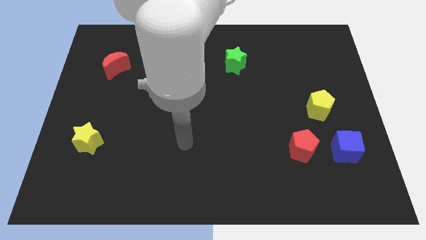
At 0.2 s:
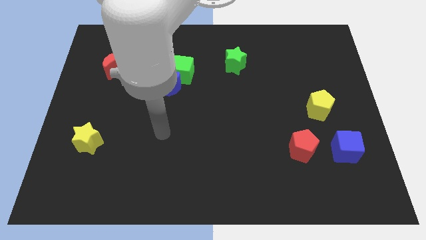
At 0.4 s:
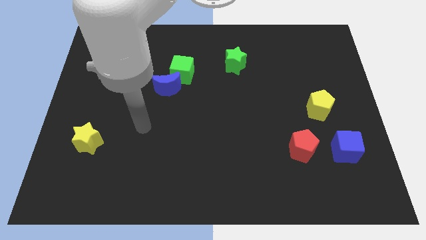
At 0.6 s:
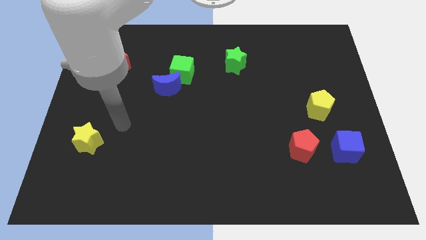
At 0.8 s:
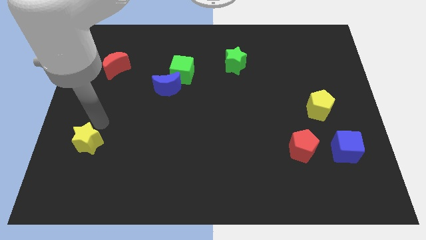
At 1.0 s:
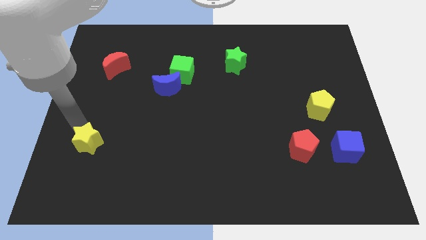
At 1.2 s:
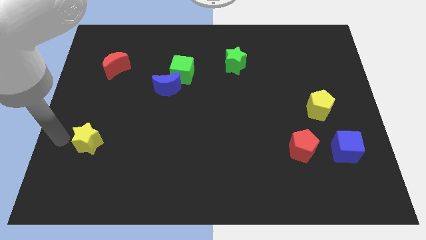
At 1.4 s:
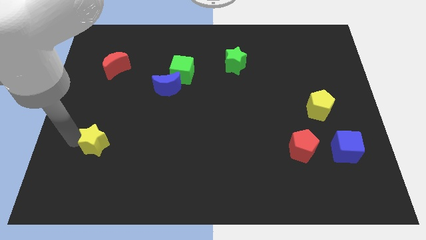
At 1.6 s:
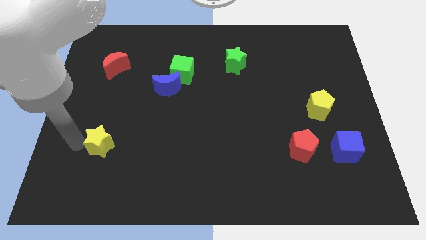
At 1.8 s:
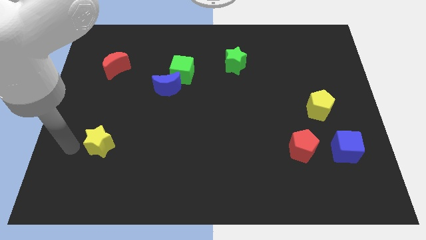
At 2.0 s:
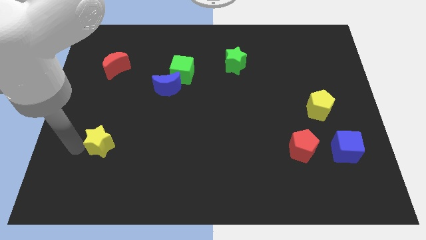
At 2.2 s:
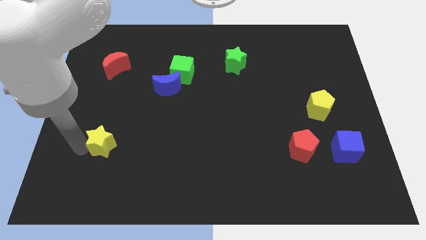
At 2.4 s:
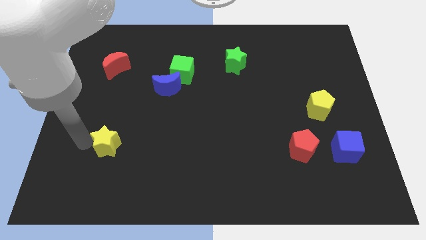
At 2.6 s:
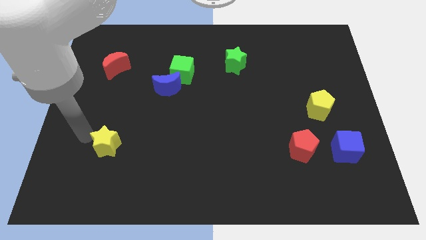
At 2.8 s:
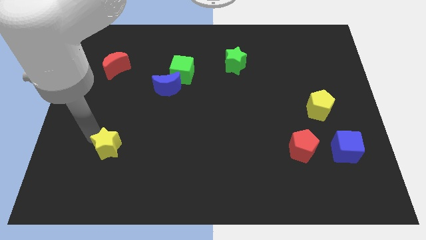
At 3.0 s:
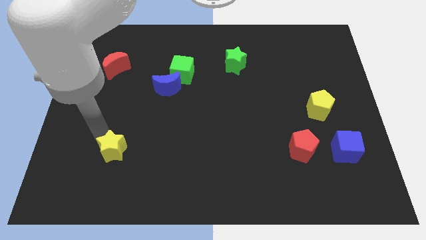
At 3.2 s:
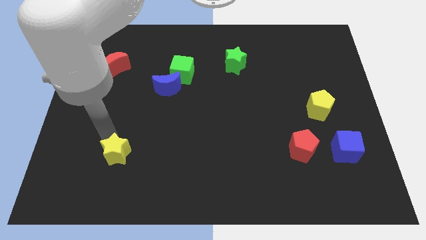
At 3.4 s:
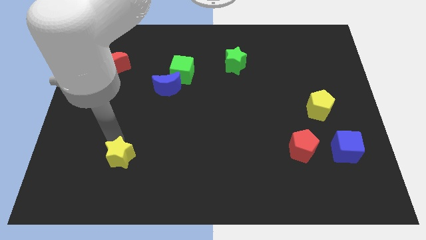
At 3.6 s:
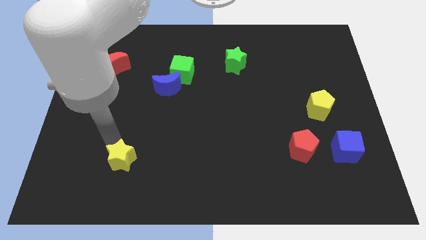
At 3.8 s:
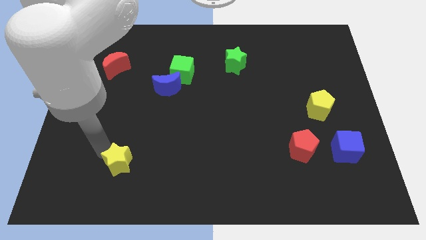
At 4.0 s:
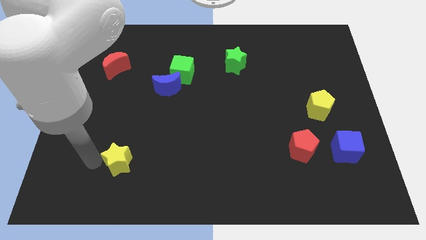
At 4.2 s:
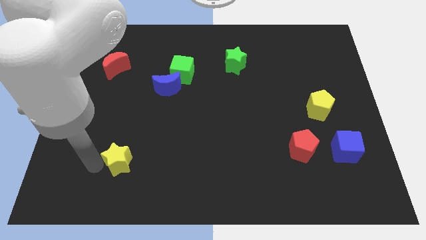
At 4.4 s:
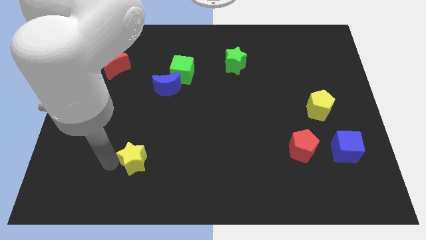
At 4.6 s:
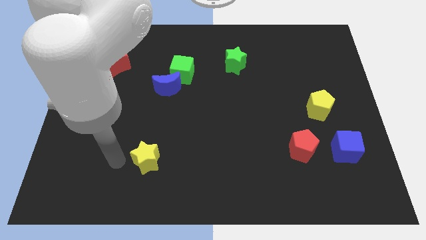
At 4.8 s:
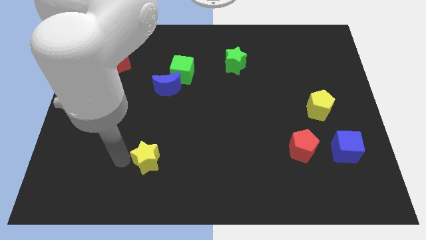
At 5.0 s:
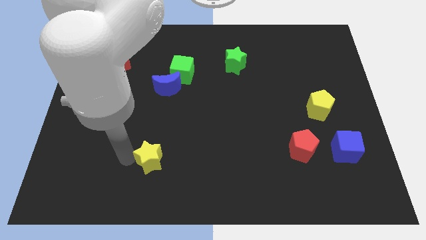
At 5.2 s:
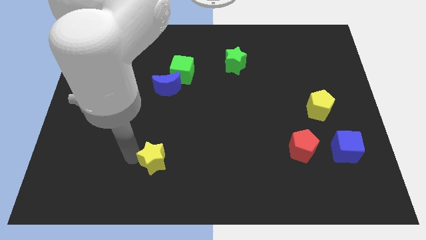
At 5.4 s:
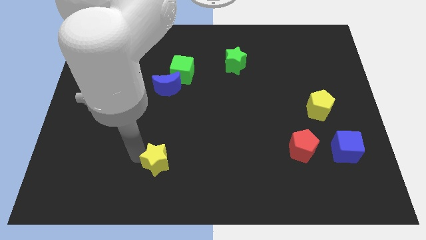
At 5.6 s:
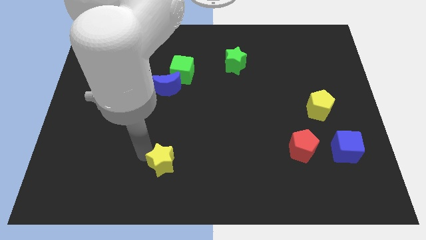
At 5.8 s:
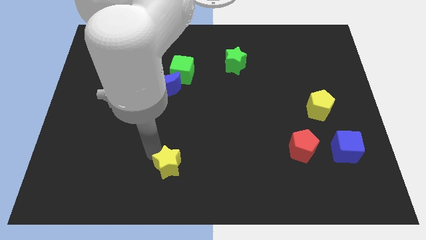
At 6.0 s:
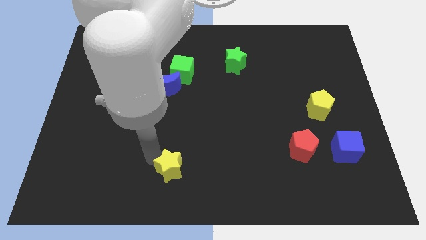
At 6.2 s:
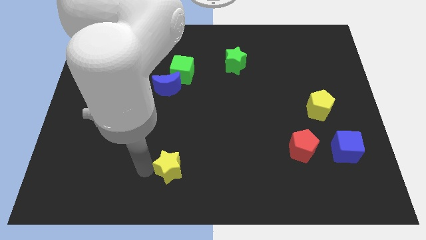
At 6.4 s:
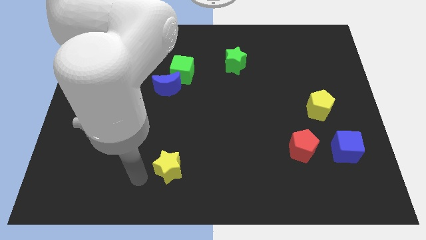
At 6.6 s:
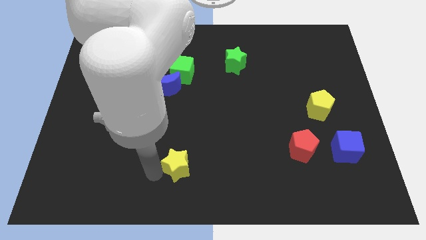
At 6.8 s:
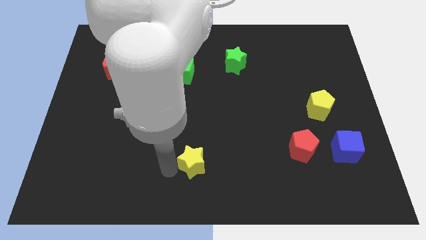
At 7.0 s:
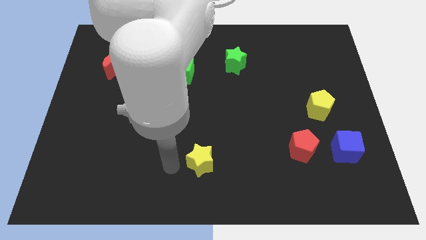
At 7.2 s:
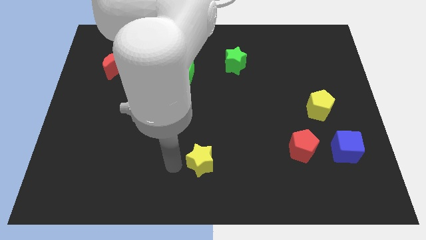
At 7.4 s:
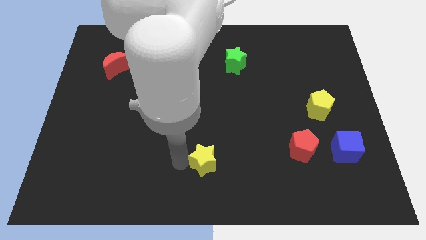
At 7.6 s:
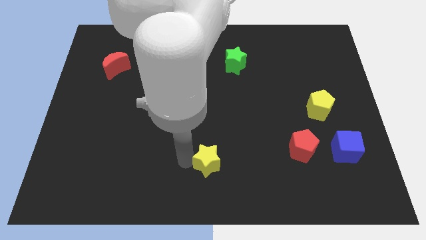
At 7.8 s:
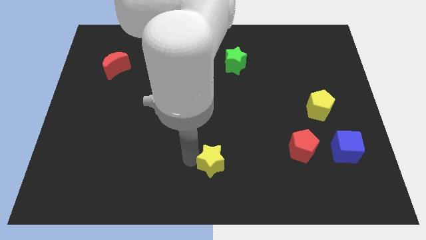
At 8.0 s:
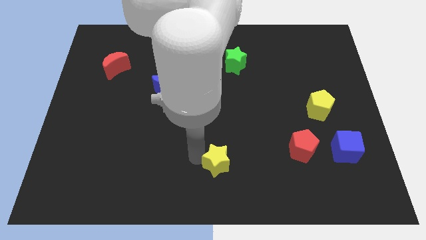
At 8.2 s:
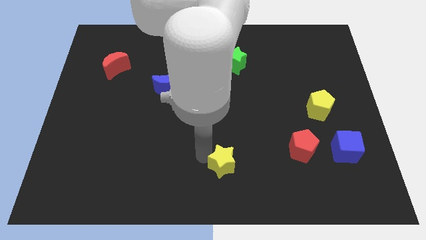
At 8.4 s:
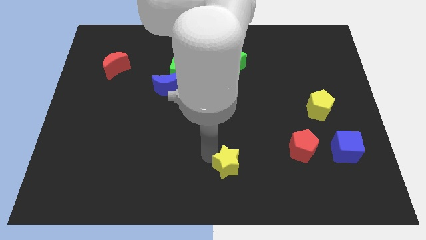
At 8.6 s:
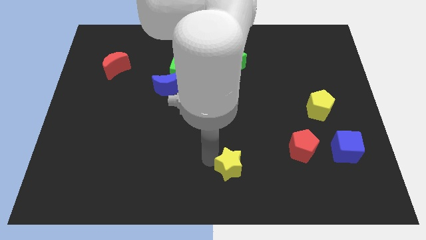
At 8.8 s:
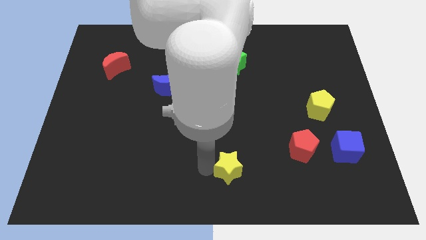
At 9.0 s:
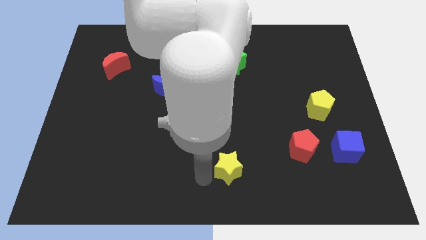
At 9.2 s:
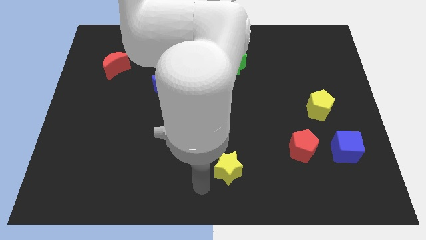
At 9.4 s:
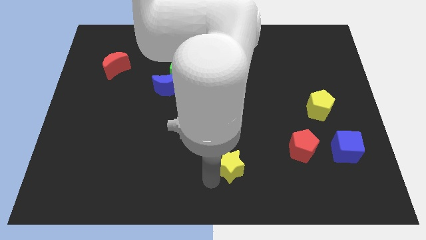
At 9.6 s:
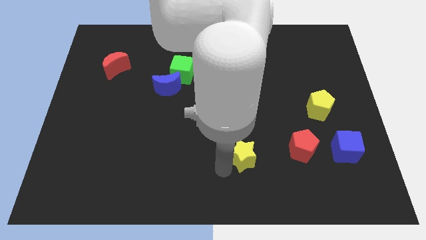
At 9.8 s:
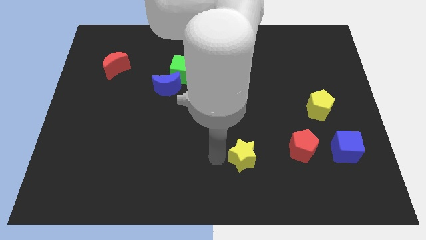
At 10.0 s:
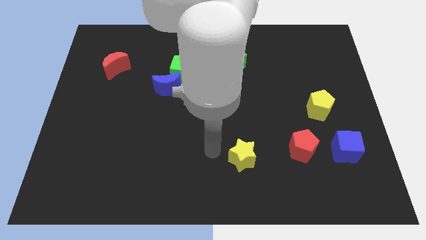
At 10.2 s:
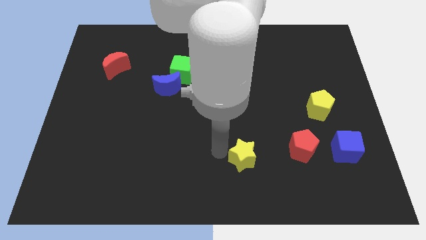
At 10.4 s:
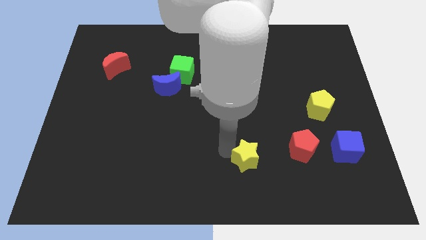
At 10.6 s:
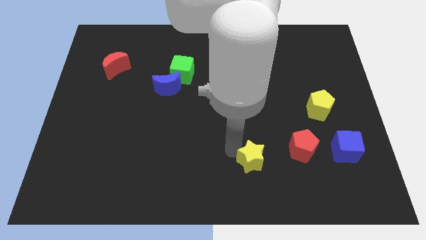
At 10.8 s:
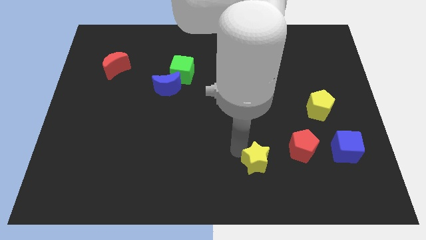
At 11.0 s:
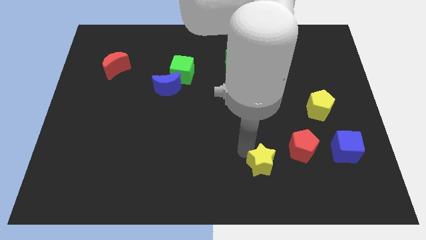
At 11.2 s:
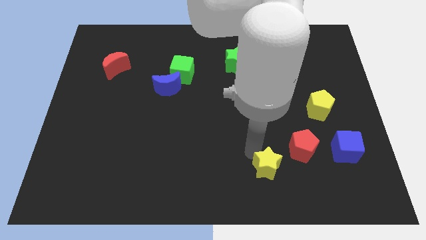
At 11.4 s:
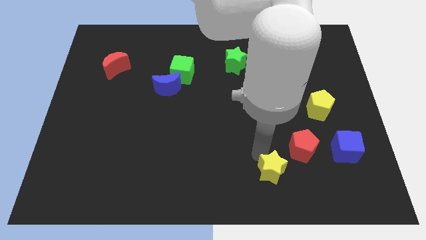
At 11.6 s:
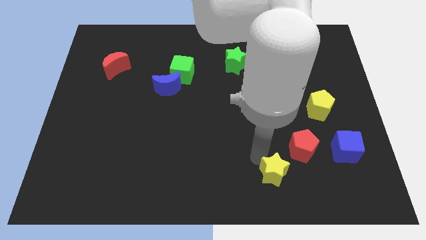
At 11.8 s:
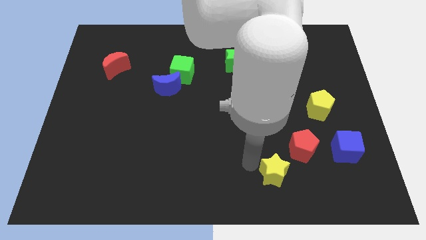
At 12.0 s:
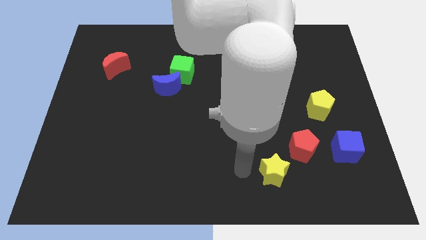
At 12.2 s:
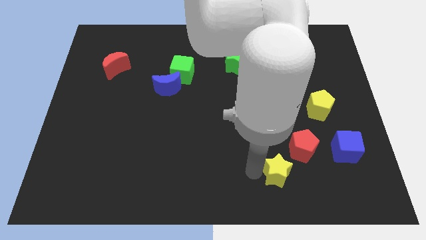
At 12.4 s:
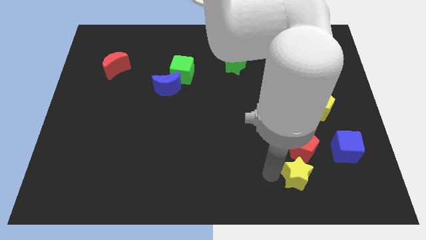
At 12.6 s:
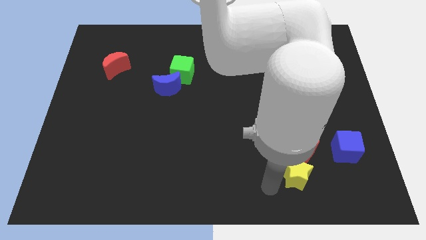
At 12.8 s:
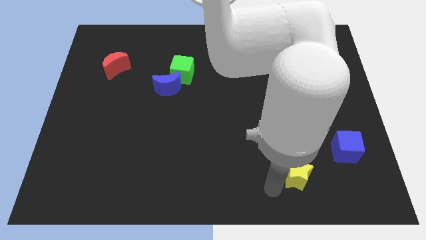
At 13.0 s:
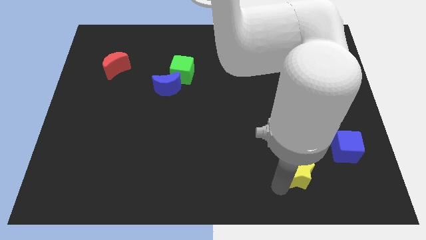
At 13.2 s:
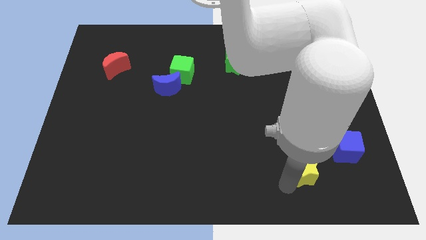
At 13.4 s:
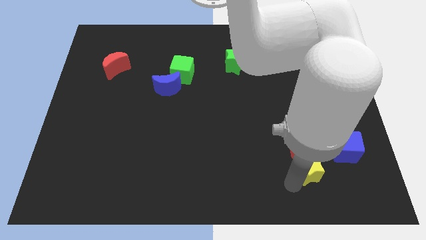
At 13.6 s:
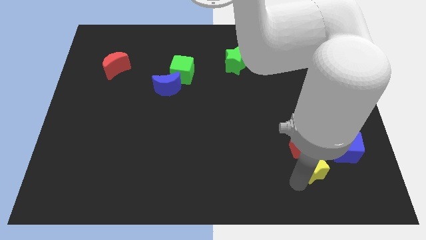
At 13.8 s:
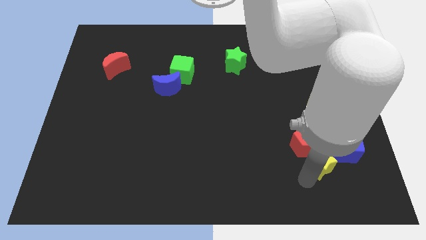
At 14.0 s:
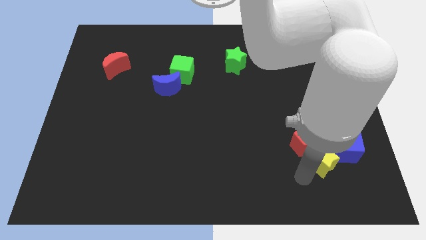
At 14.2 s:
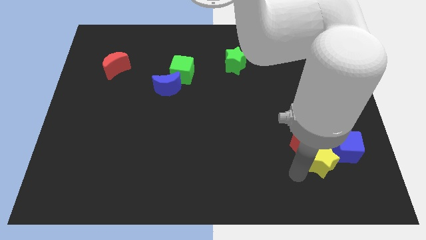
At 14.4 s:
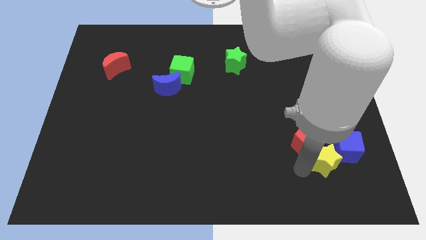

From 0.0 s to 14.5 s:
put the yellow star close to the blue cube
